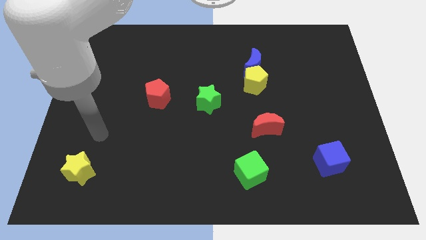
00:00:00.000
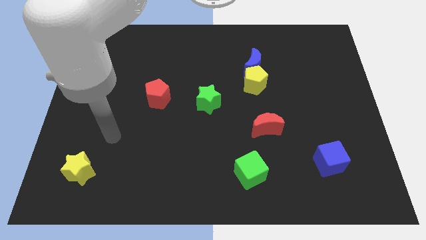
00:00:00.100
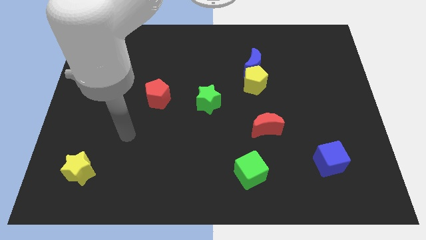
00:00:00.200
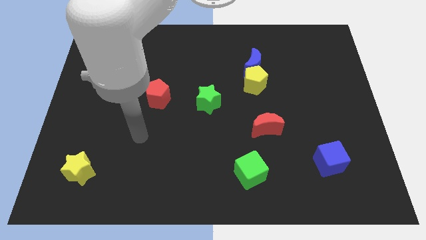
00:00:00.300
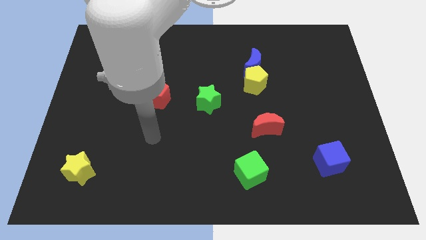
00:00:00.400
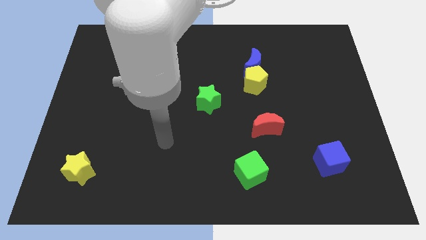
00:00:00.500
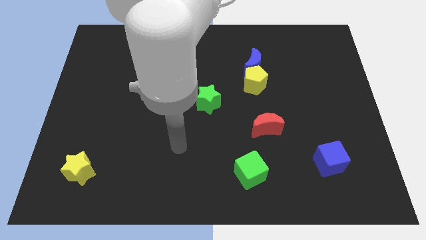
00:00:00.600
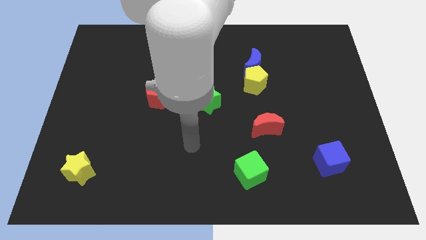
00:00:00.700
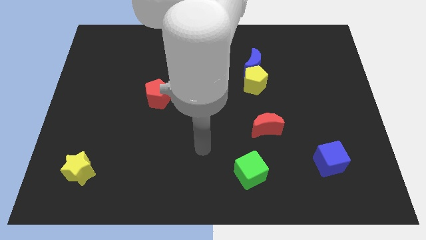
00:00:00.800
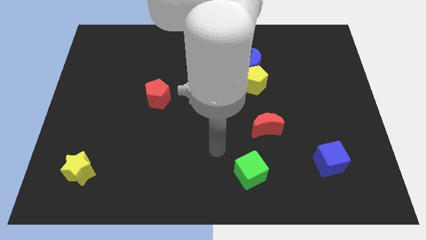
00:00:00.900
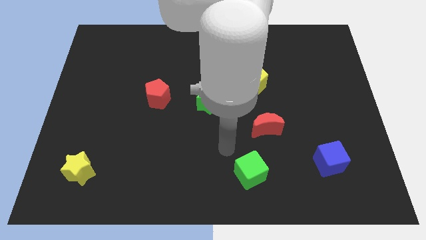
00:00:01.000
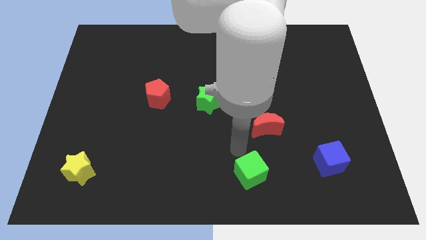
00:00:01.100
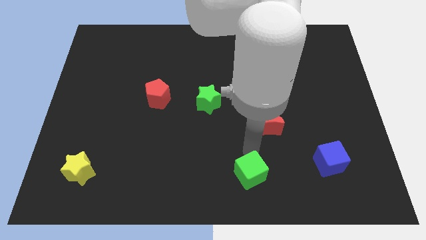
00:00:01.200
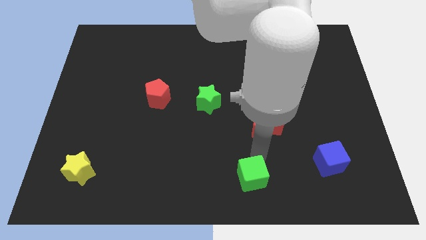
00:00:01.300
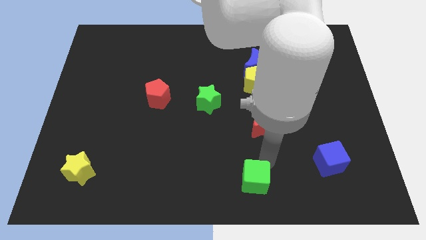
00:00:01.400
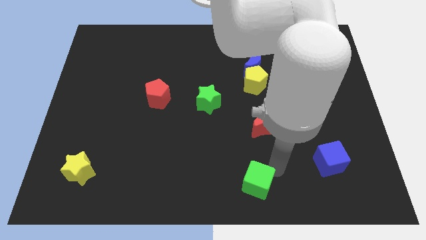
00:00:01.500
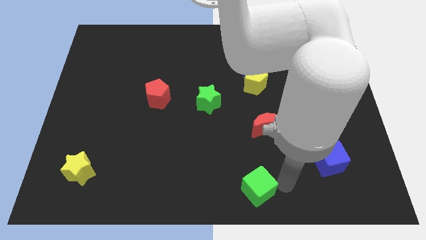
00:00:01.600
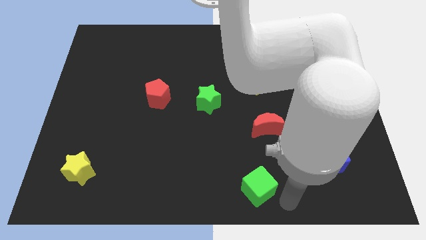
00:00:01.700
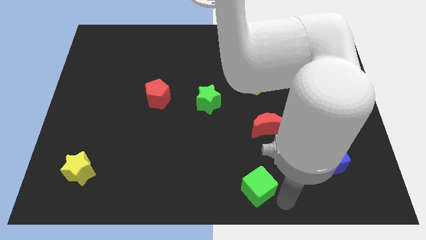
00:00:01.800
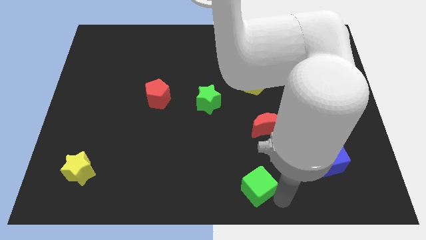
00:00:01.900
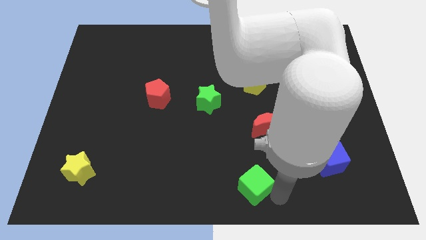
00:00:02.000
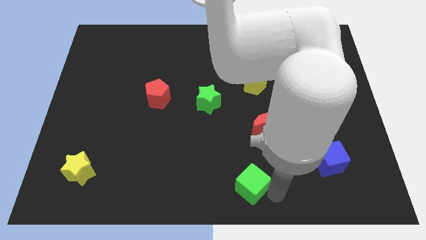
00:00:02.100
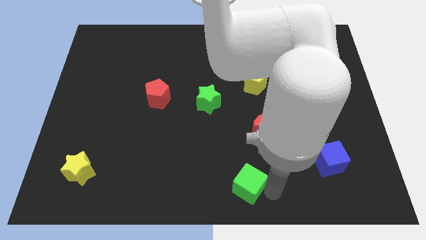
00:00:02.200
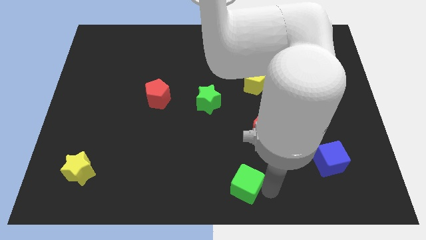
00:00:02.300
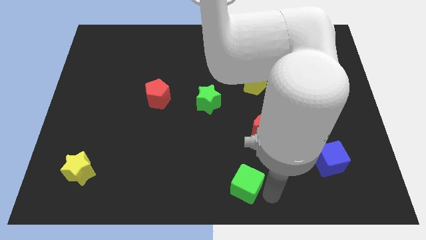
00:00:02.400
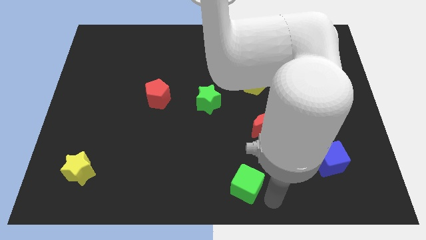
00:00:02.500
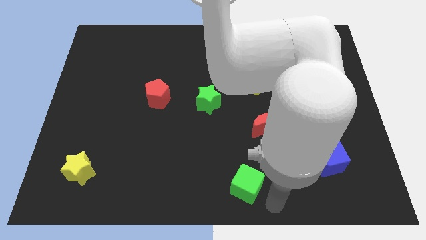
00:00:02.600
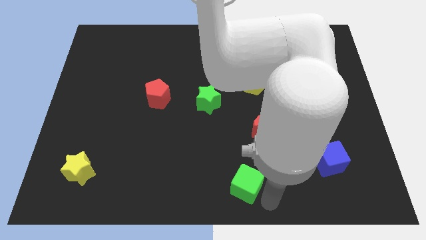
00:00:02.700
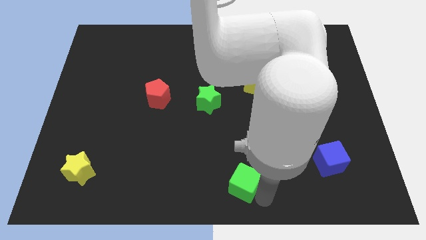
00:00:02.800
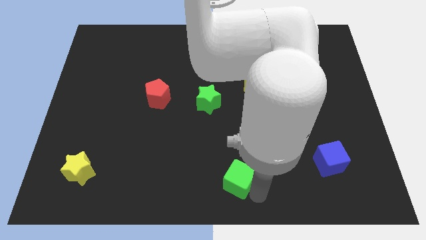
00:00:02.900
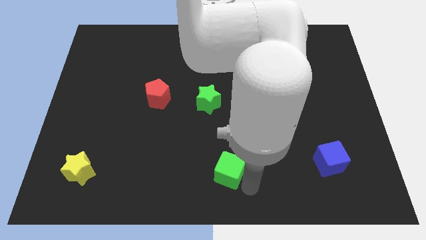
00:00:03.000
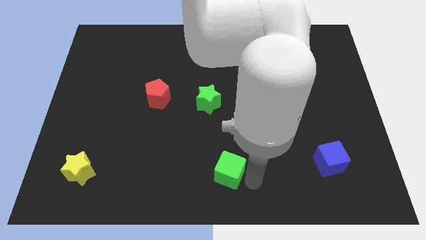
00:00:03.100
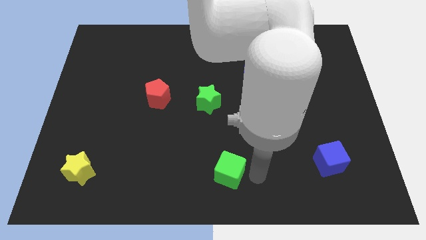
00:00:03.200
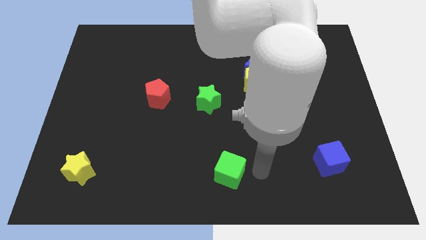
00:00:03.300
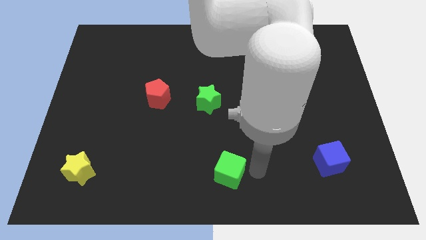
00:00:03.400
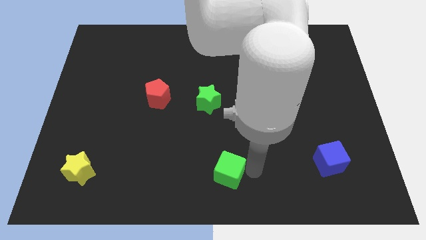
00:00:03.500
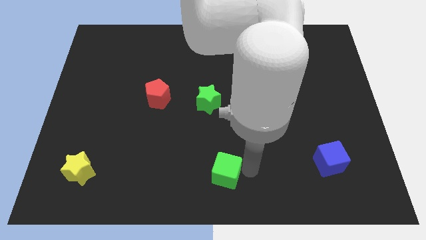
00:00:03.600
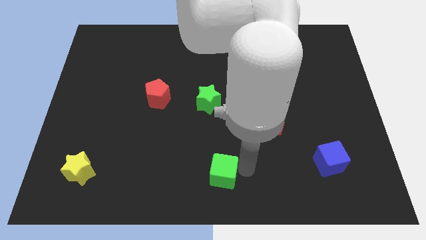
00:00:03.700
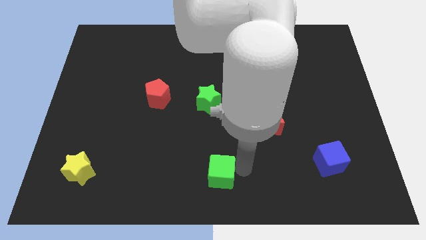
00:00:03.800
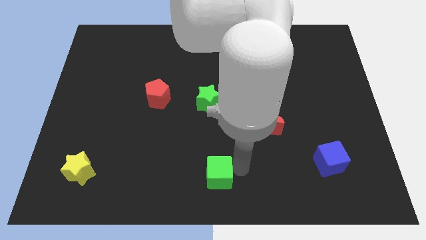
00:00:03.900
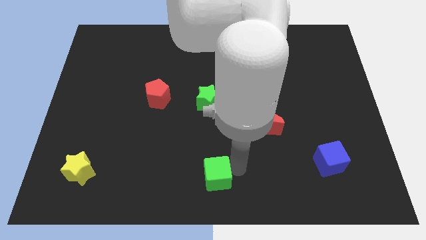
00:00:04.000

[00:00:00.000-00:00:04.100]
move the green cube a little left

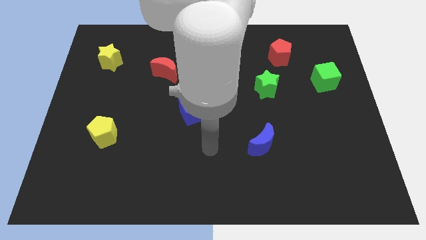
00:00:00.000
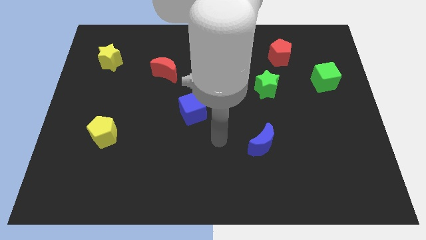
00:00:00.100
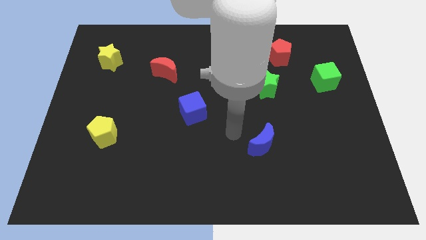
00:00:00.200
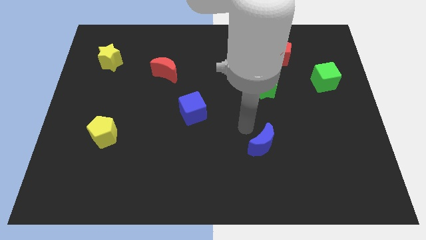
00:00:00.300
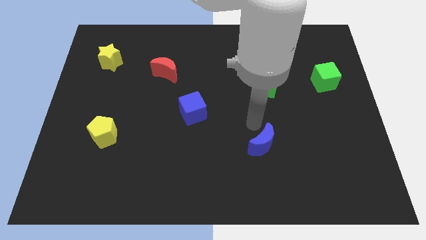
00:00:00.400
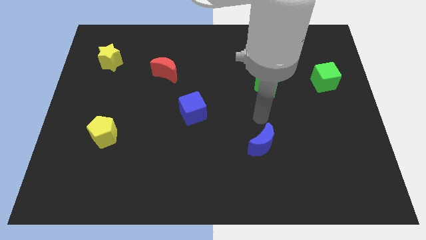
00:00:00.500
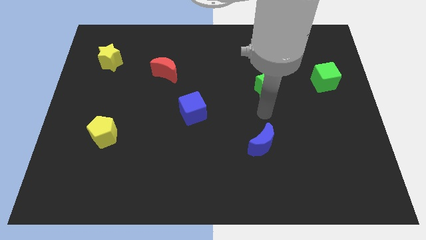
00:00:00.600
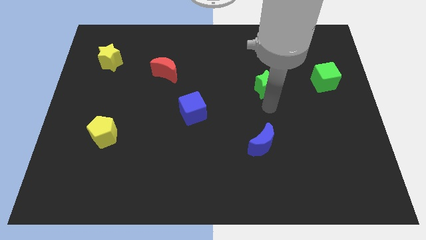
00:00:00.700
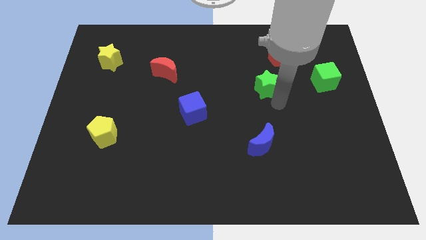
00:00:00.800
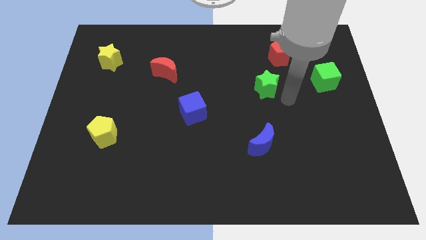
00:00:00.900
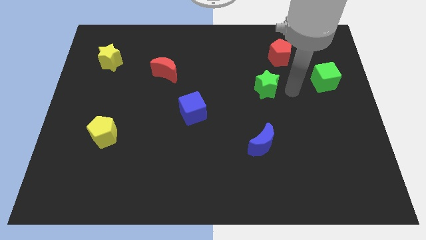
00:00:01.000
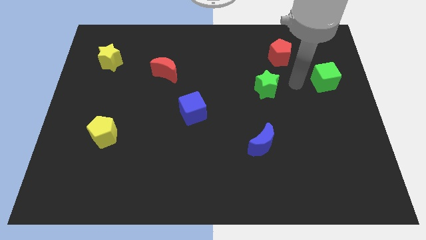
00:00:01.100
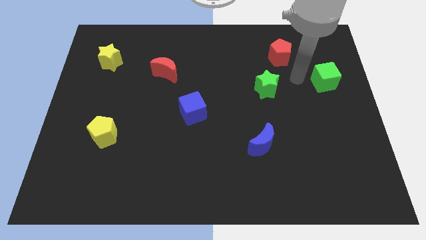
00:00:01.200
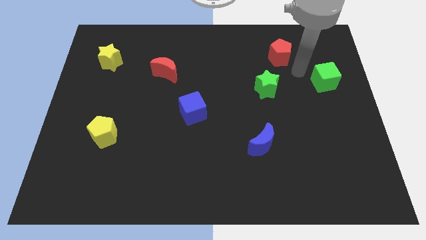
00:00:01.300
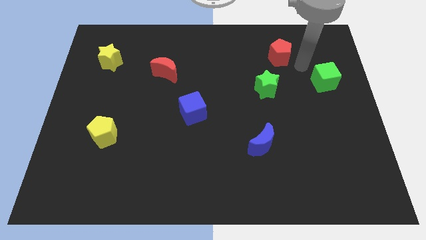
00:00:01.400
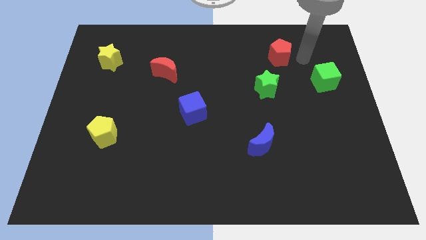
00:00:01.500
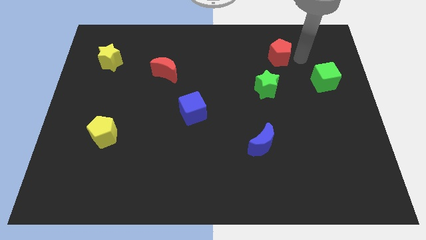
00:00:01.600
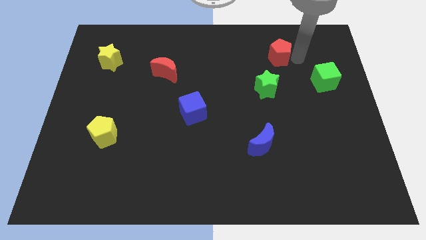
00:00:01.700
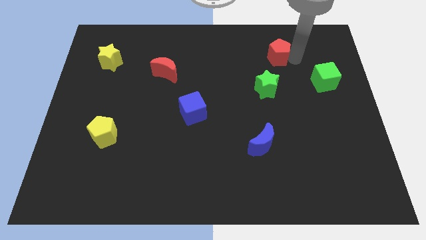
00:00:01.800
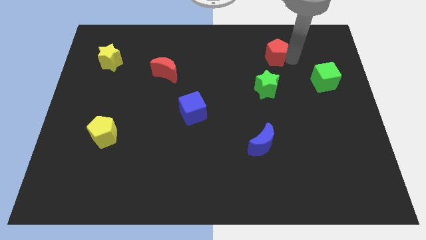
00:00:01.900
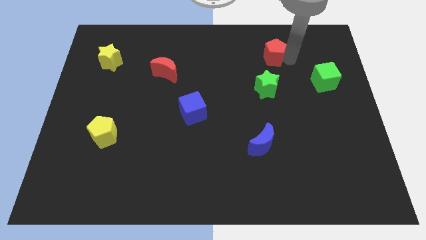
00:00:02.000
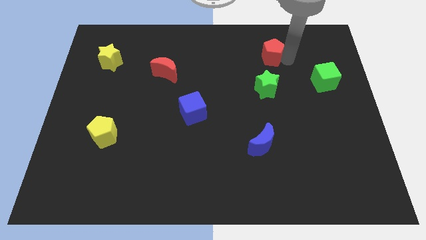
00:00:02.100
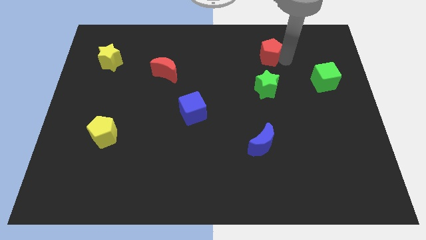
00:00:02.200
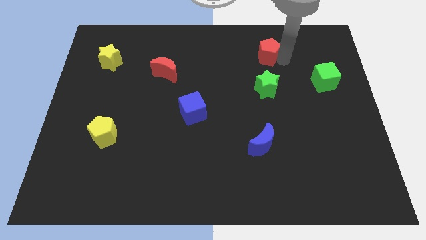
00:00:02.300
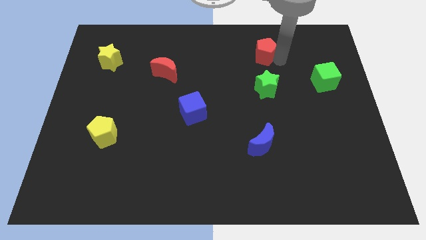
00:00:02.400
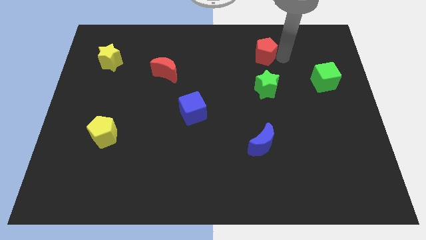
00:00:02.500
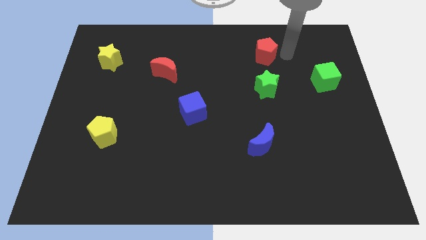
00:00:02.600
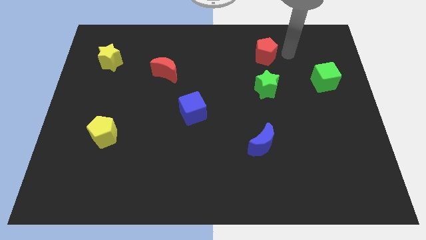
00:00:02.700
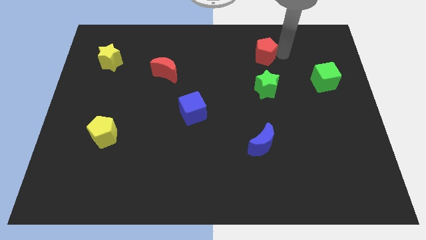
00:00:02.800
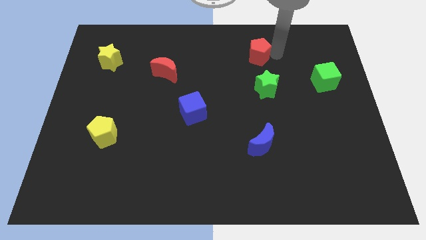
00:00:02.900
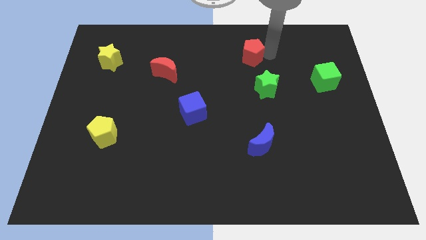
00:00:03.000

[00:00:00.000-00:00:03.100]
slide the red pentagon left slightly

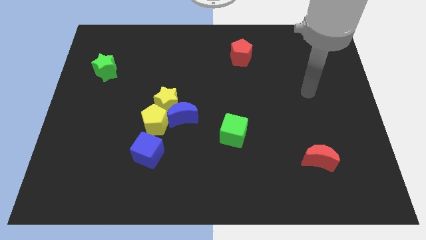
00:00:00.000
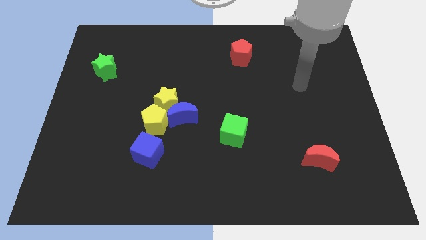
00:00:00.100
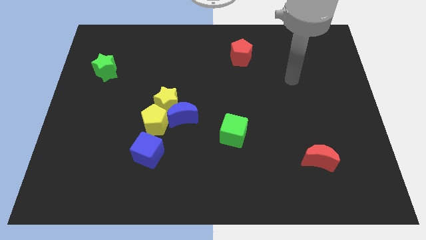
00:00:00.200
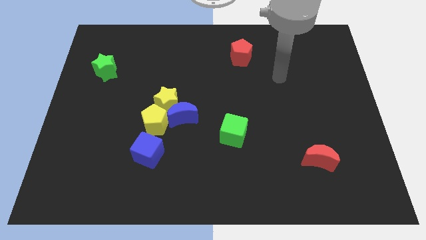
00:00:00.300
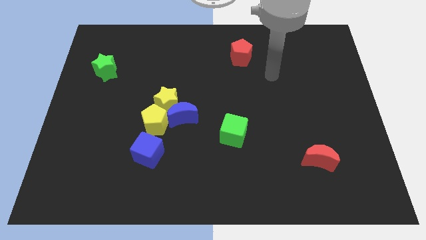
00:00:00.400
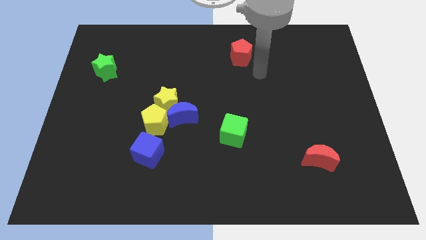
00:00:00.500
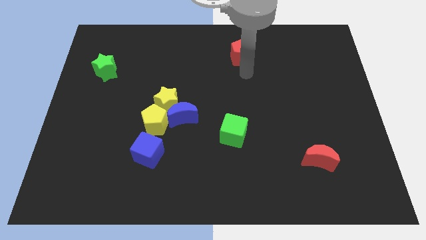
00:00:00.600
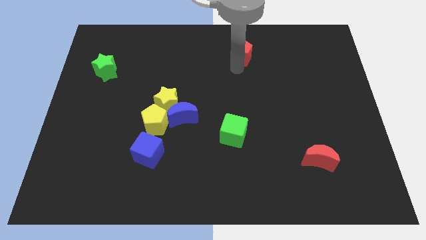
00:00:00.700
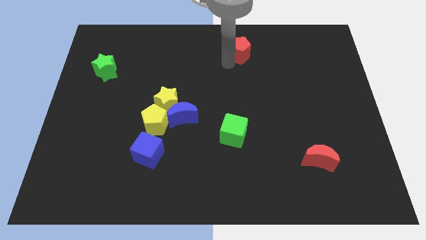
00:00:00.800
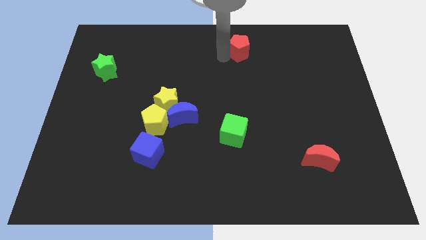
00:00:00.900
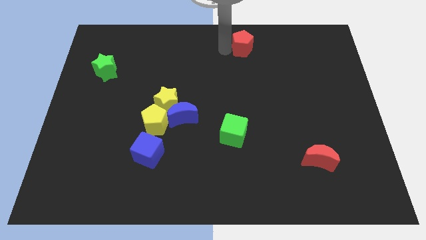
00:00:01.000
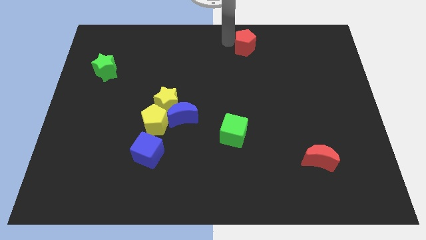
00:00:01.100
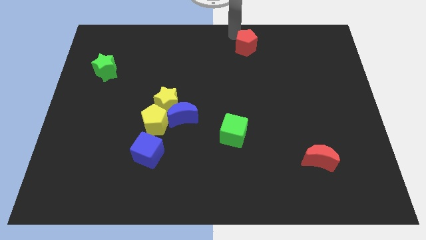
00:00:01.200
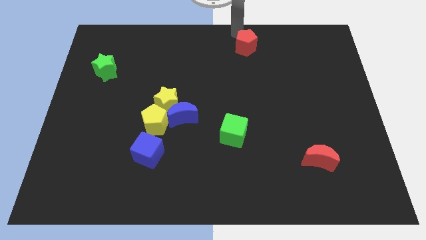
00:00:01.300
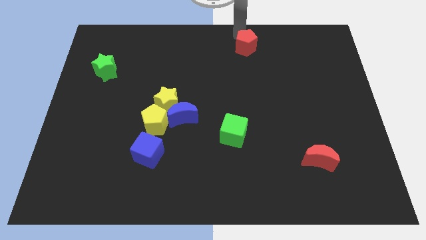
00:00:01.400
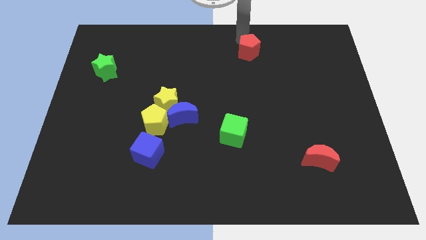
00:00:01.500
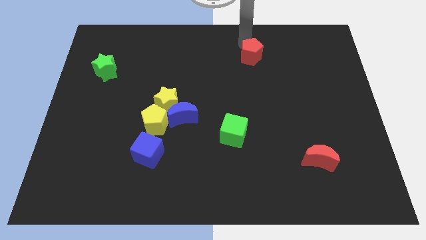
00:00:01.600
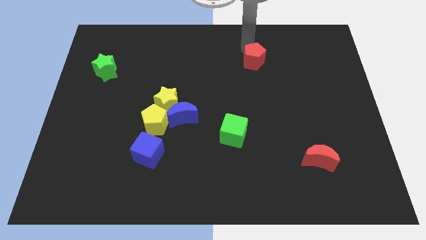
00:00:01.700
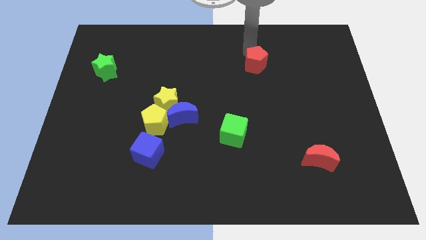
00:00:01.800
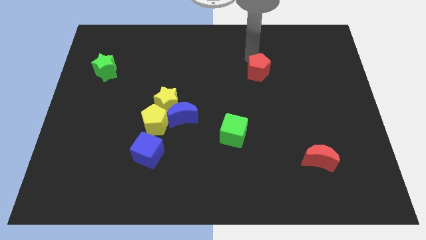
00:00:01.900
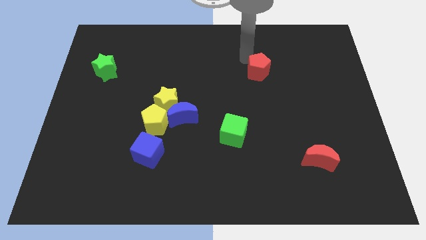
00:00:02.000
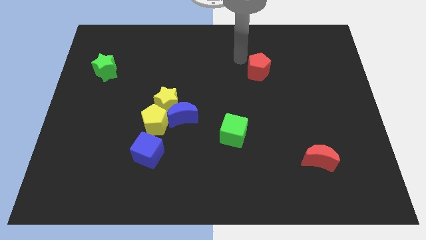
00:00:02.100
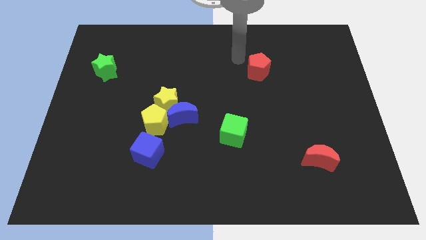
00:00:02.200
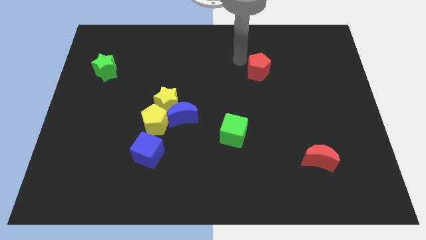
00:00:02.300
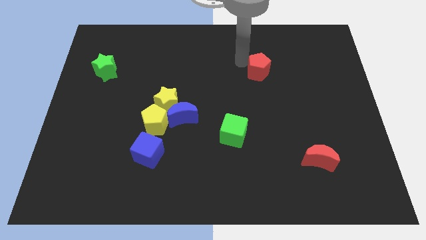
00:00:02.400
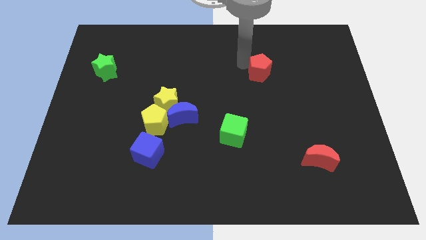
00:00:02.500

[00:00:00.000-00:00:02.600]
slide the red pentagon somewhat downwards and to the right diagonally
